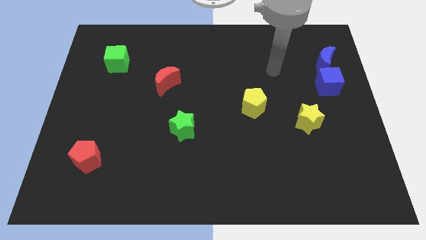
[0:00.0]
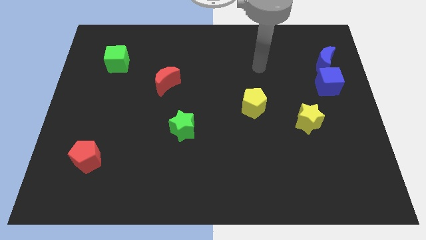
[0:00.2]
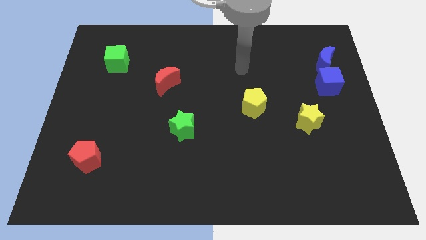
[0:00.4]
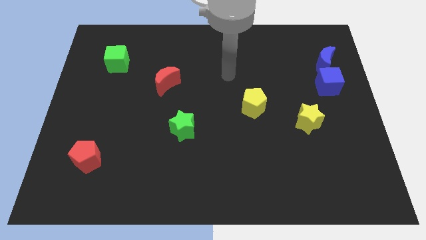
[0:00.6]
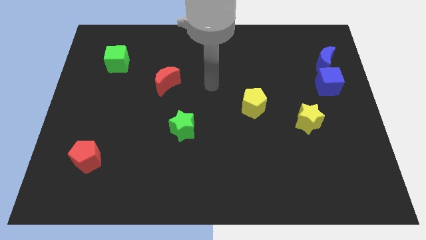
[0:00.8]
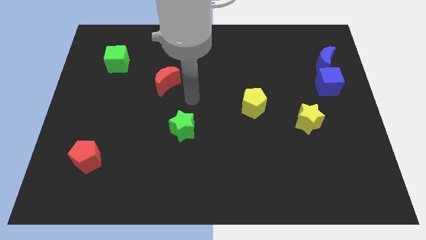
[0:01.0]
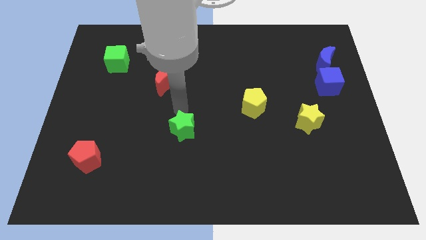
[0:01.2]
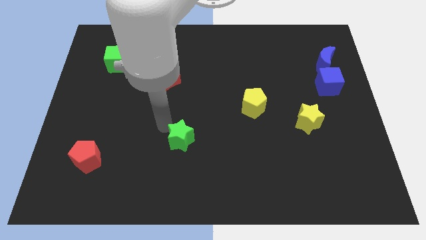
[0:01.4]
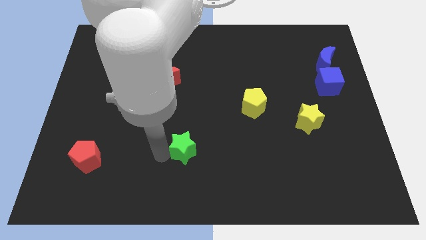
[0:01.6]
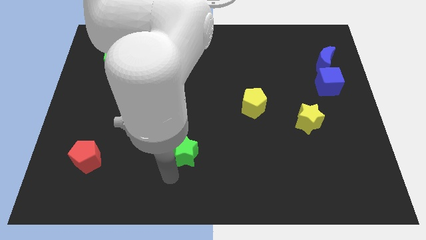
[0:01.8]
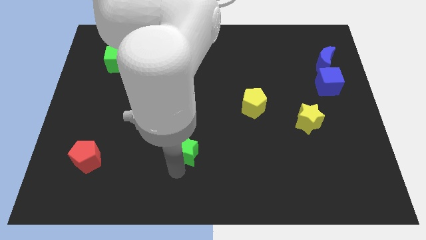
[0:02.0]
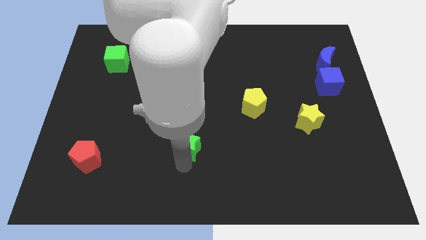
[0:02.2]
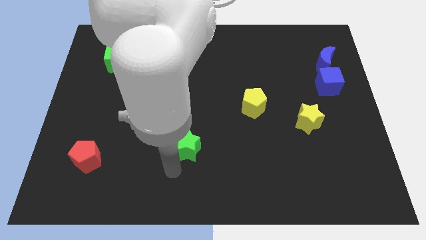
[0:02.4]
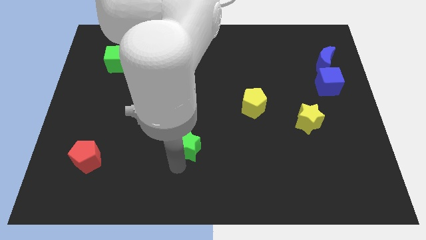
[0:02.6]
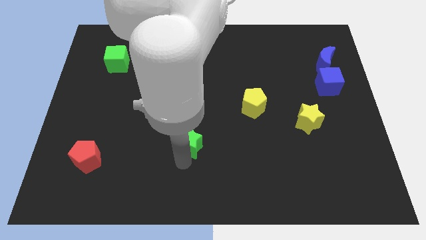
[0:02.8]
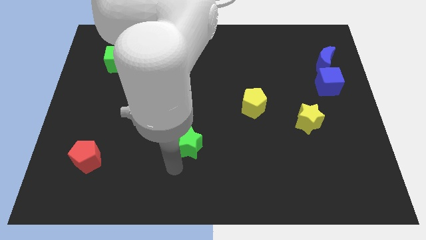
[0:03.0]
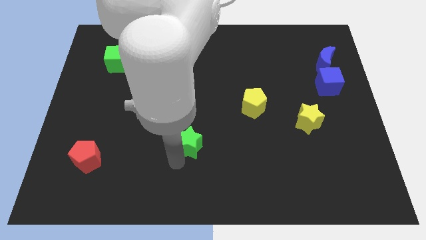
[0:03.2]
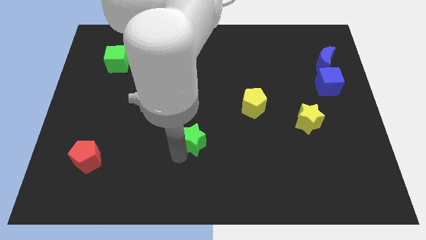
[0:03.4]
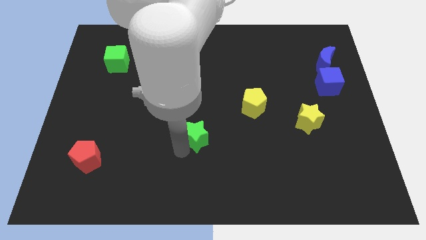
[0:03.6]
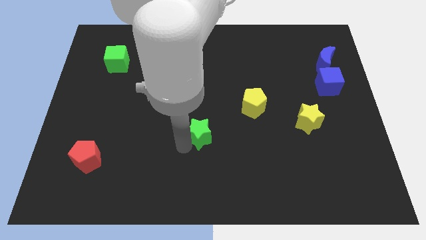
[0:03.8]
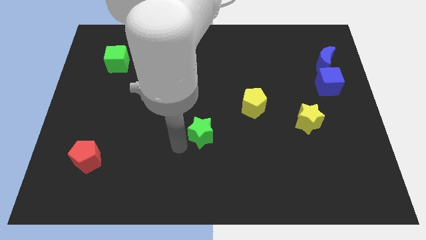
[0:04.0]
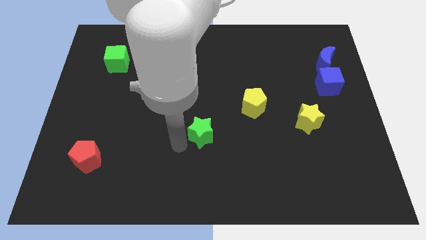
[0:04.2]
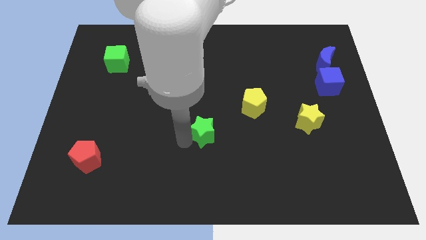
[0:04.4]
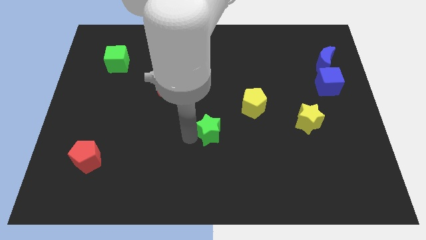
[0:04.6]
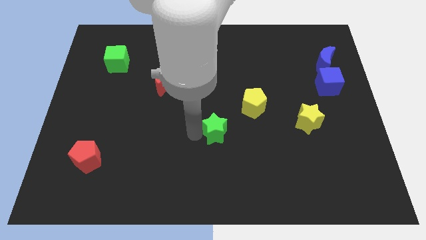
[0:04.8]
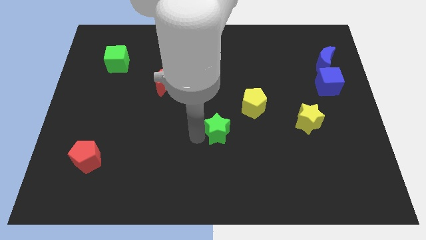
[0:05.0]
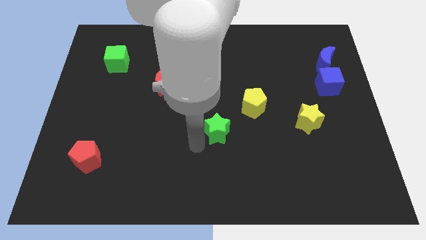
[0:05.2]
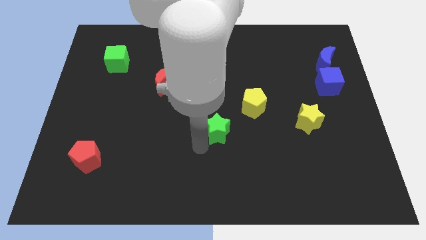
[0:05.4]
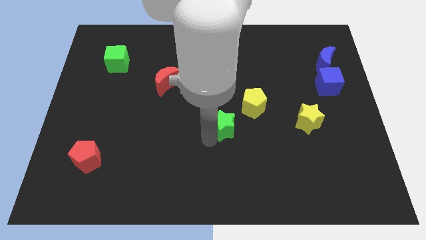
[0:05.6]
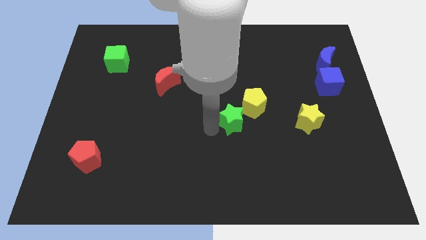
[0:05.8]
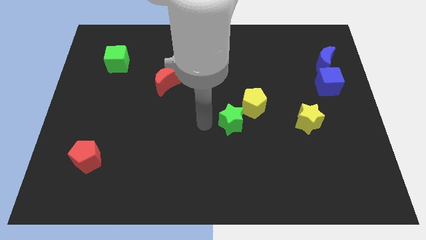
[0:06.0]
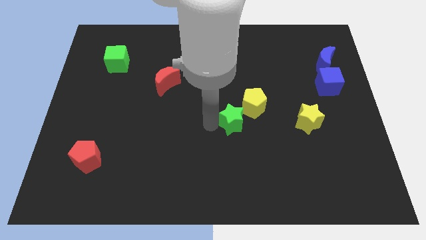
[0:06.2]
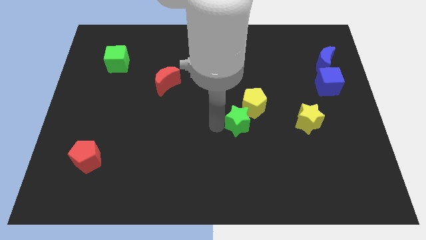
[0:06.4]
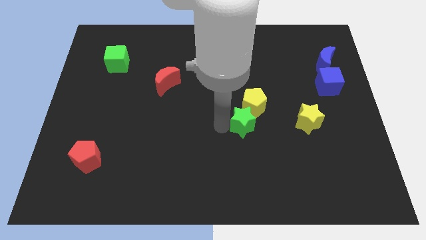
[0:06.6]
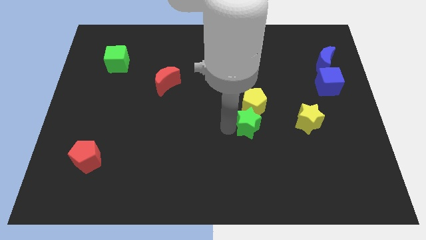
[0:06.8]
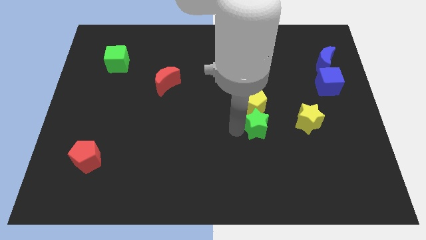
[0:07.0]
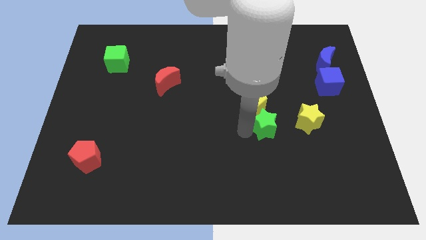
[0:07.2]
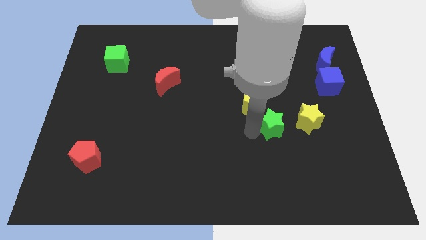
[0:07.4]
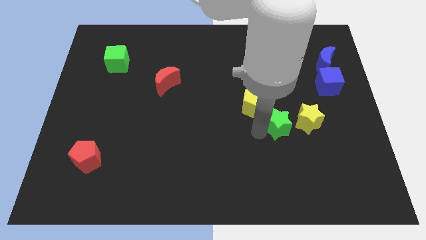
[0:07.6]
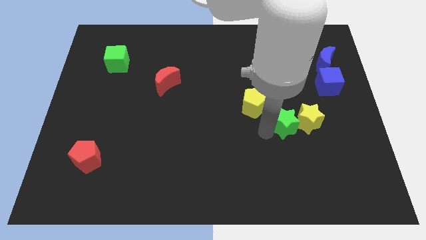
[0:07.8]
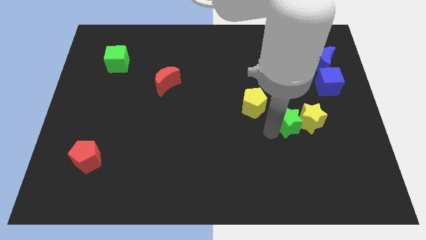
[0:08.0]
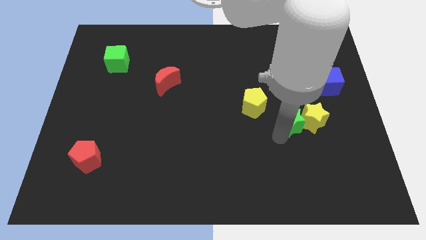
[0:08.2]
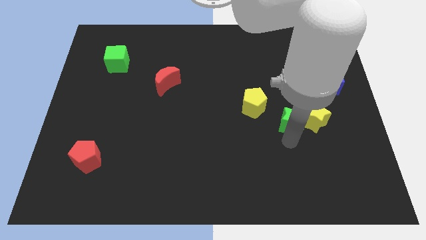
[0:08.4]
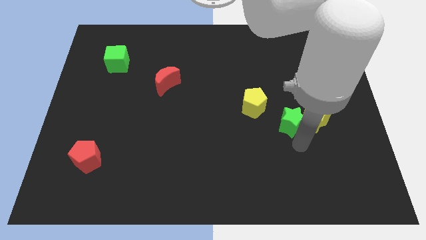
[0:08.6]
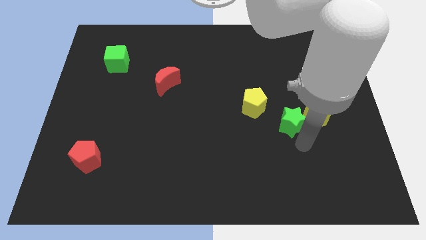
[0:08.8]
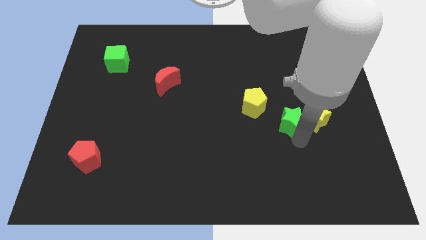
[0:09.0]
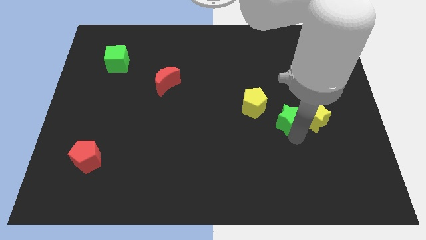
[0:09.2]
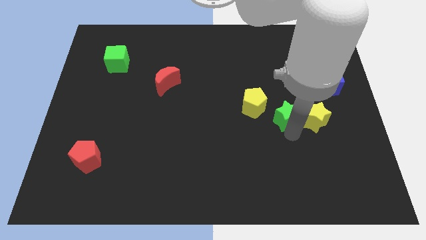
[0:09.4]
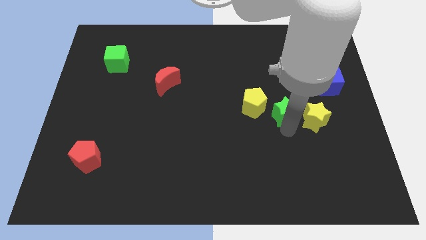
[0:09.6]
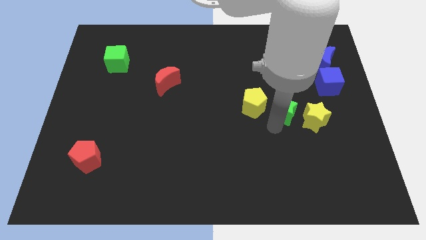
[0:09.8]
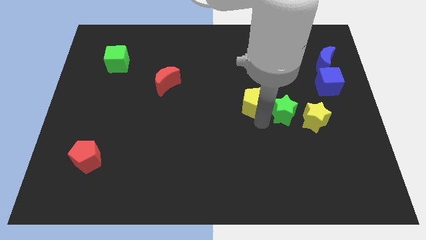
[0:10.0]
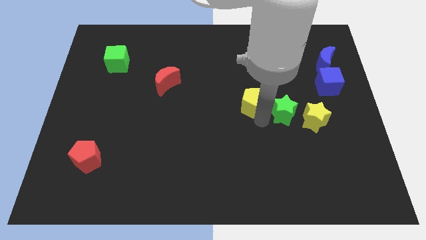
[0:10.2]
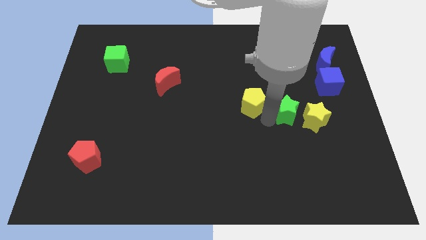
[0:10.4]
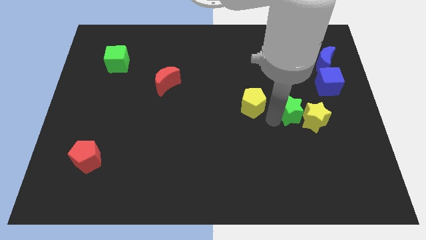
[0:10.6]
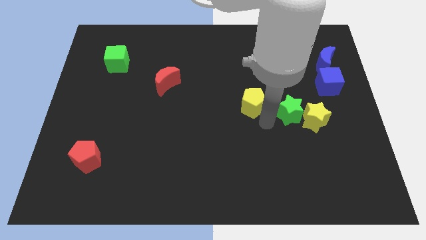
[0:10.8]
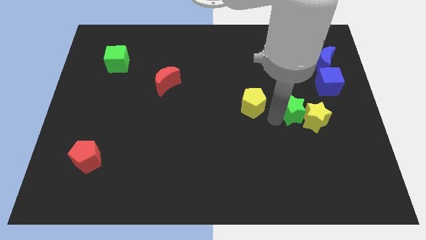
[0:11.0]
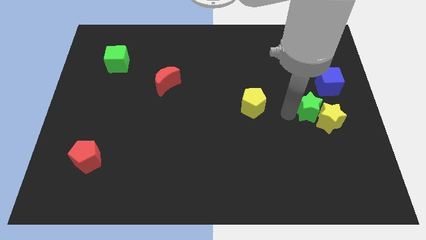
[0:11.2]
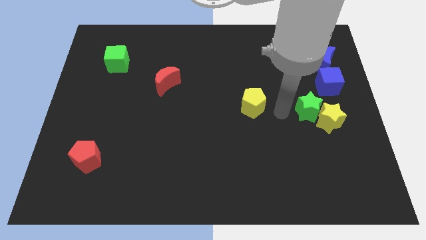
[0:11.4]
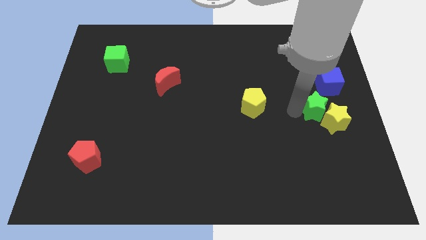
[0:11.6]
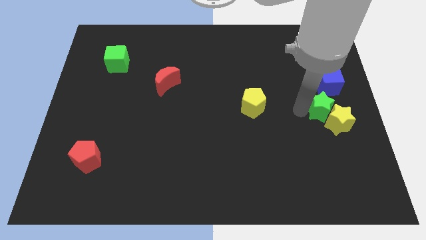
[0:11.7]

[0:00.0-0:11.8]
push the green star to the right side
